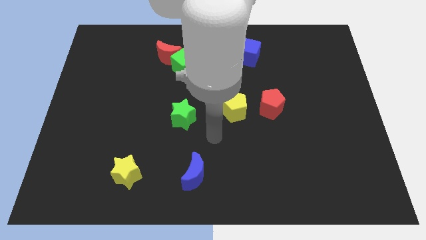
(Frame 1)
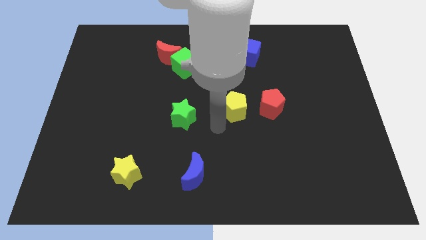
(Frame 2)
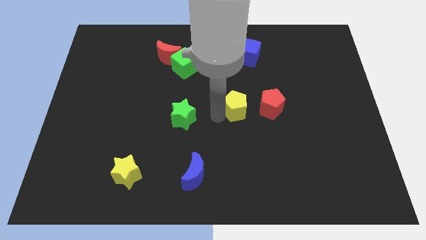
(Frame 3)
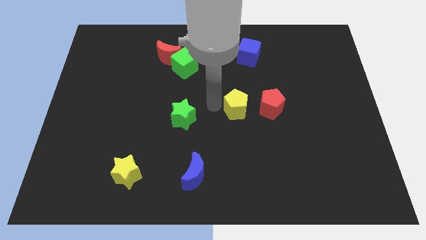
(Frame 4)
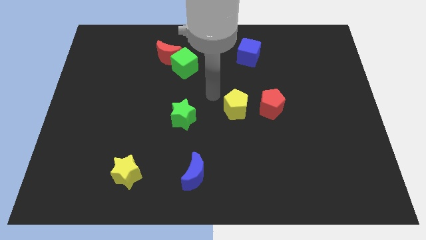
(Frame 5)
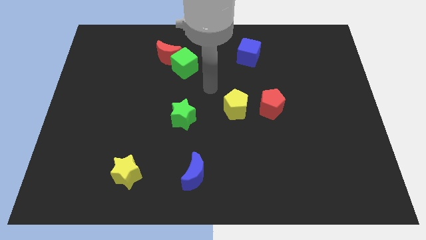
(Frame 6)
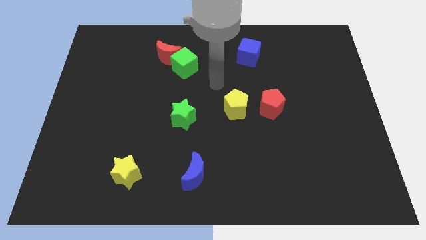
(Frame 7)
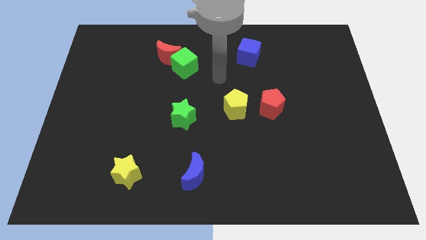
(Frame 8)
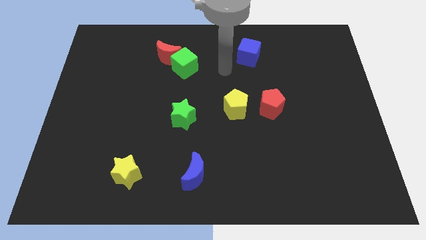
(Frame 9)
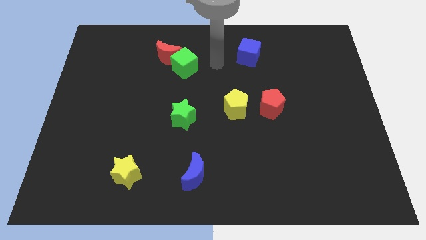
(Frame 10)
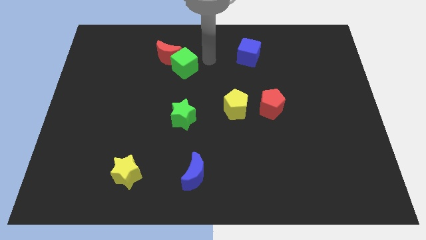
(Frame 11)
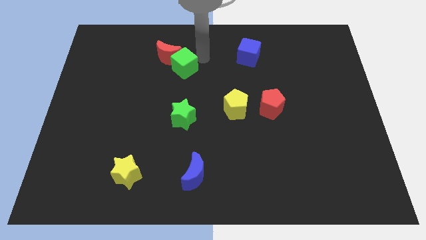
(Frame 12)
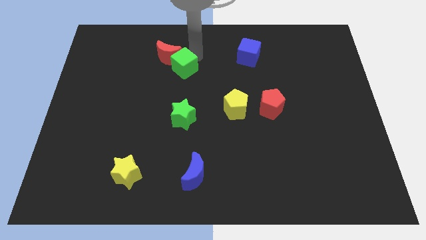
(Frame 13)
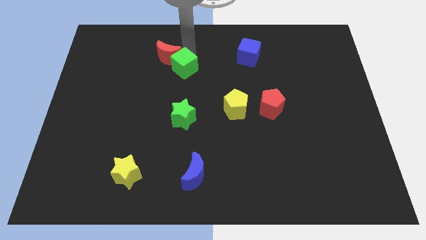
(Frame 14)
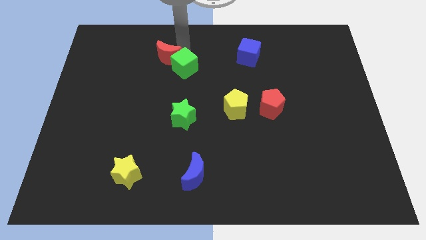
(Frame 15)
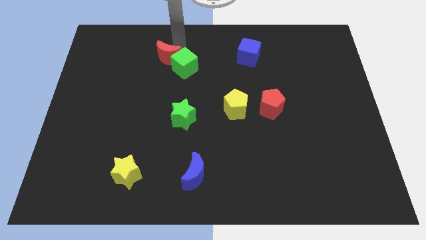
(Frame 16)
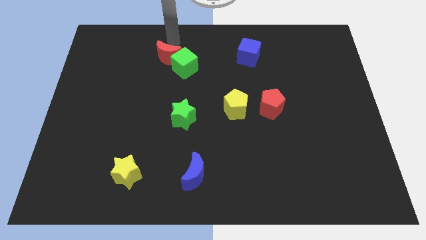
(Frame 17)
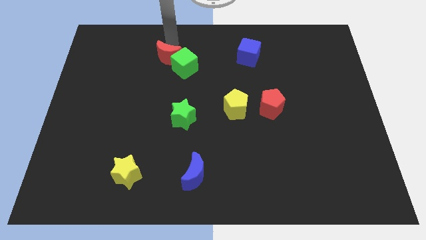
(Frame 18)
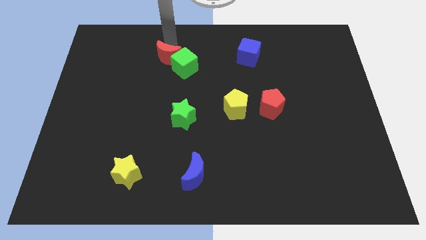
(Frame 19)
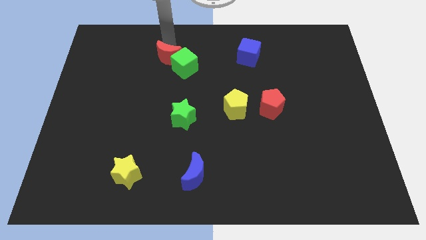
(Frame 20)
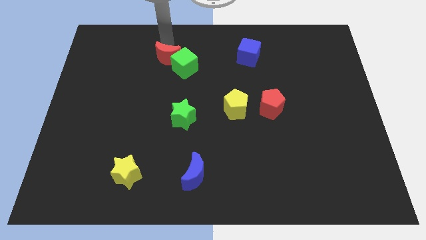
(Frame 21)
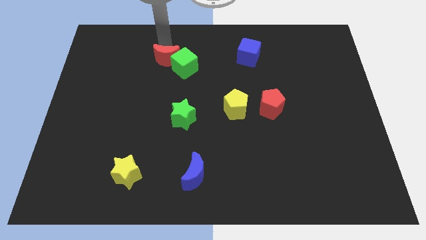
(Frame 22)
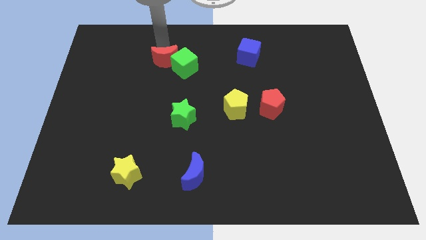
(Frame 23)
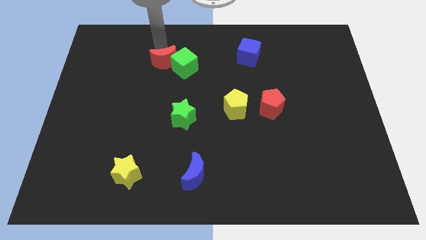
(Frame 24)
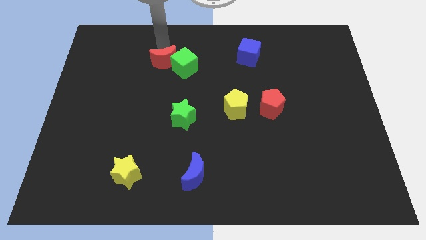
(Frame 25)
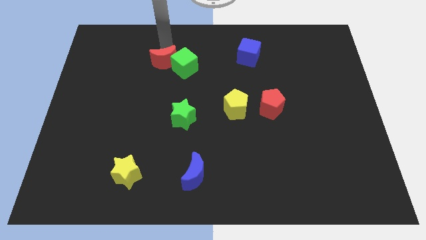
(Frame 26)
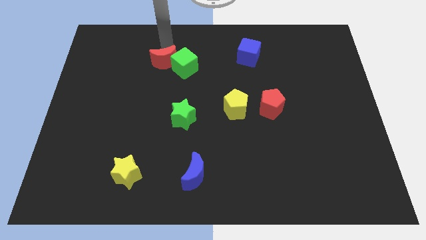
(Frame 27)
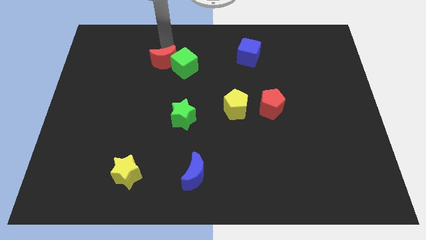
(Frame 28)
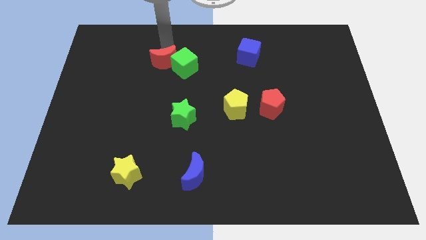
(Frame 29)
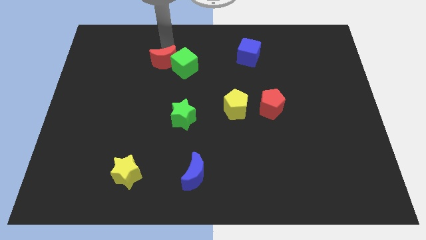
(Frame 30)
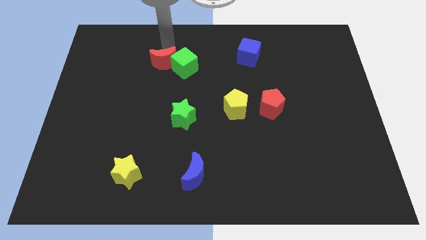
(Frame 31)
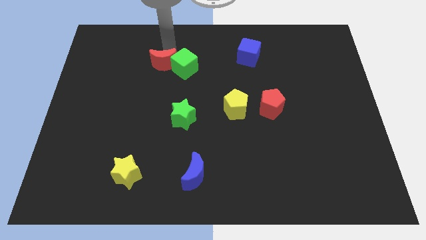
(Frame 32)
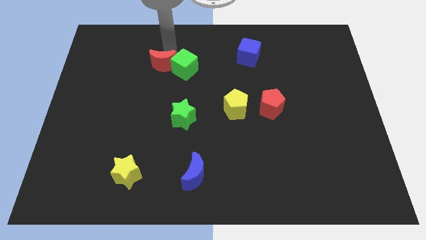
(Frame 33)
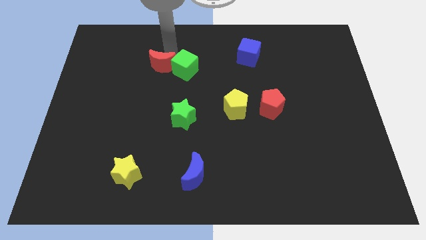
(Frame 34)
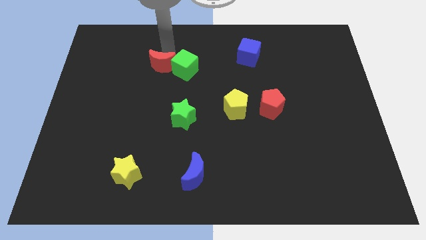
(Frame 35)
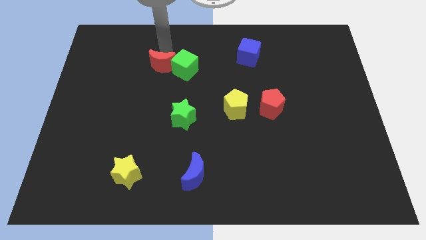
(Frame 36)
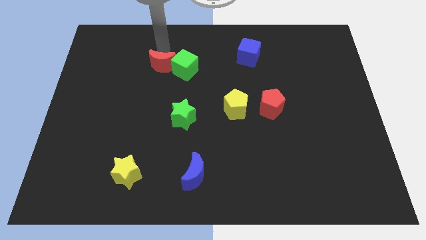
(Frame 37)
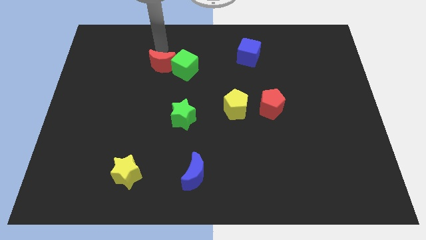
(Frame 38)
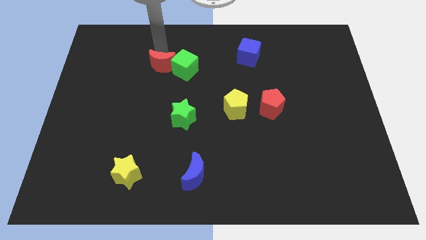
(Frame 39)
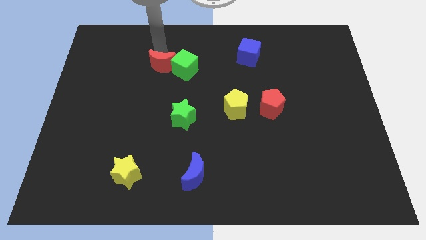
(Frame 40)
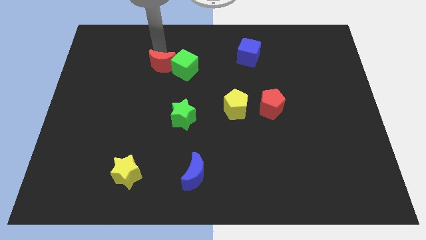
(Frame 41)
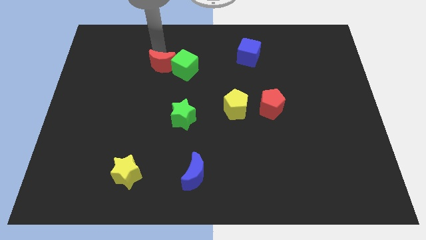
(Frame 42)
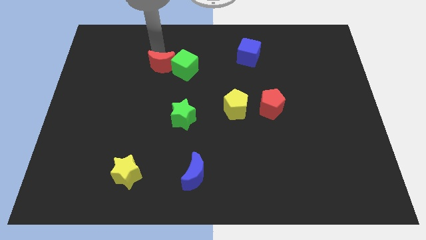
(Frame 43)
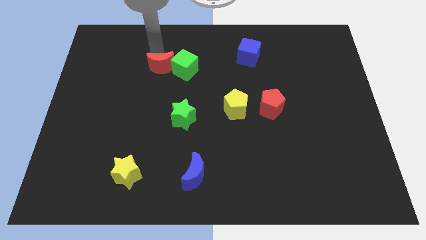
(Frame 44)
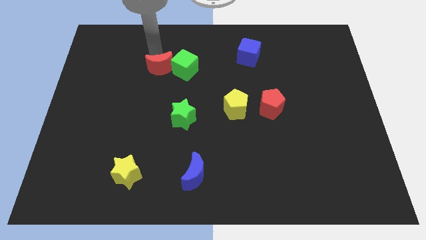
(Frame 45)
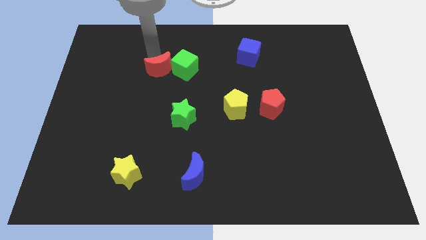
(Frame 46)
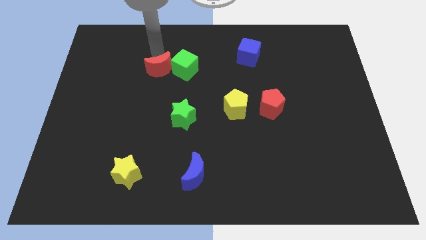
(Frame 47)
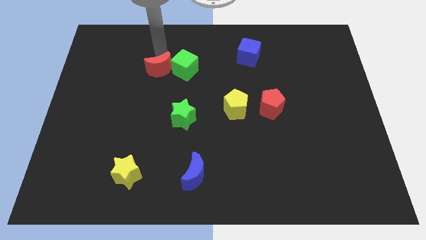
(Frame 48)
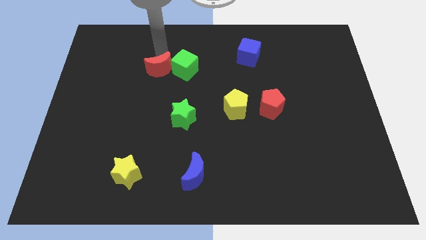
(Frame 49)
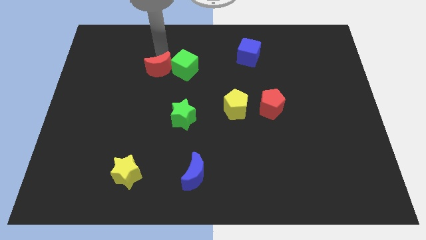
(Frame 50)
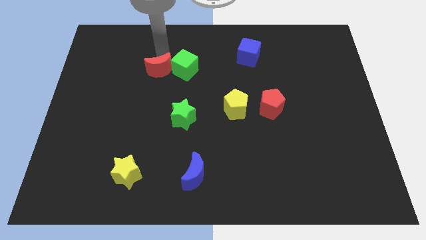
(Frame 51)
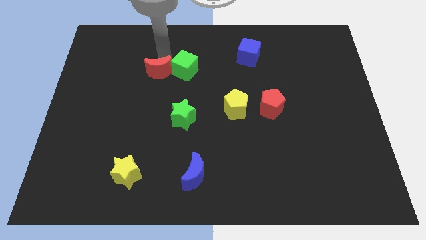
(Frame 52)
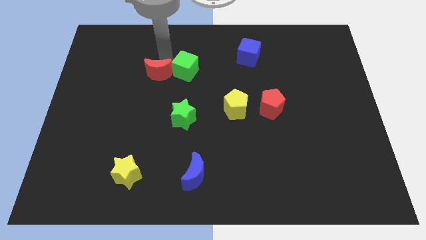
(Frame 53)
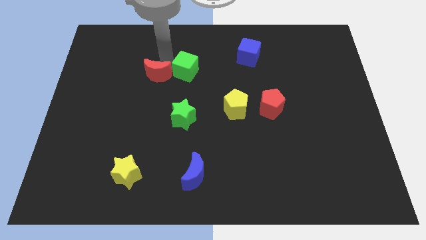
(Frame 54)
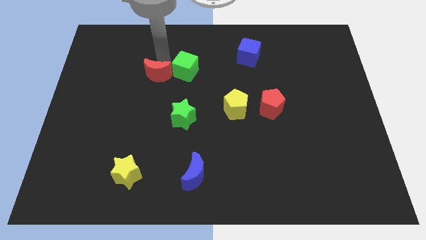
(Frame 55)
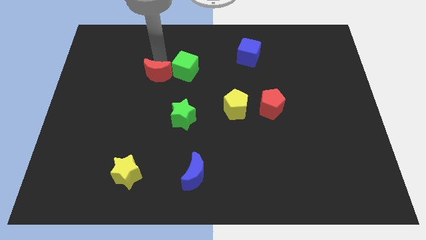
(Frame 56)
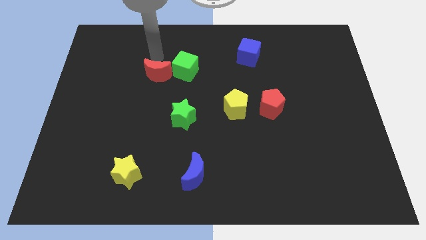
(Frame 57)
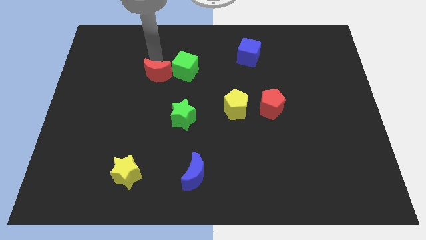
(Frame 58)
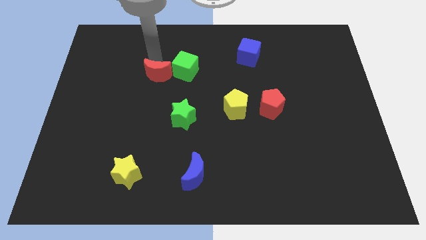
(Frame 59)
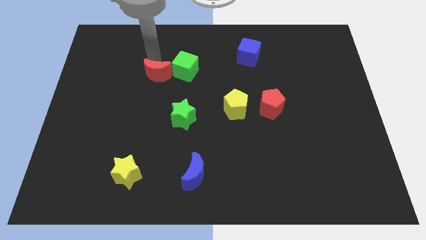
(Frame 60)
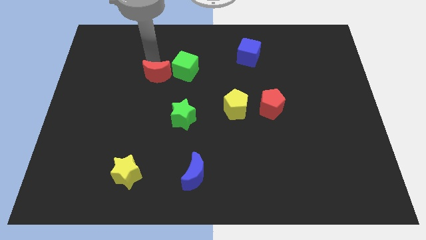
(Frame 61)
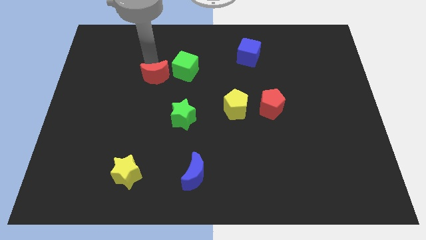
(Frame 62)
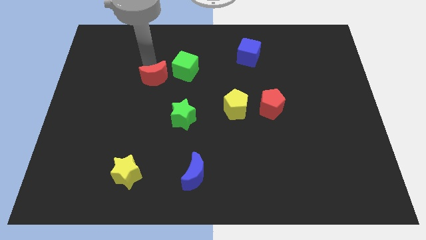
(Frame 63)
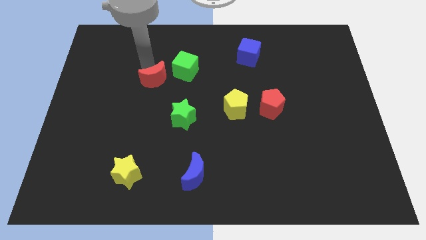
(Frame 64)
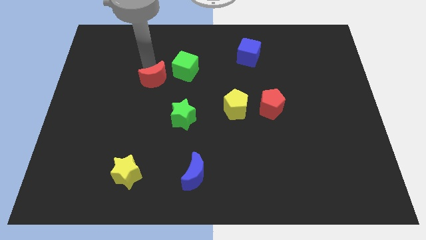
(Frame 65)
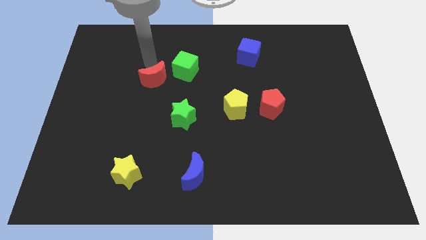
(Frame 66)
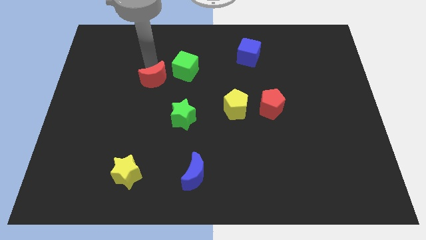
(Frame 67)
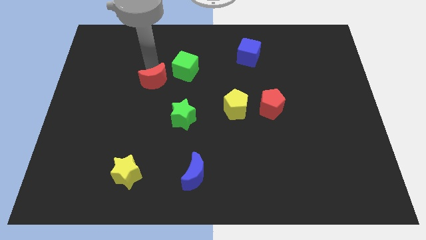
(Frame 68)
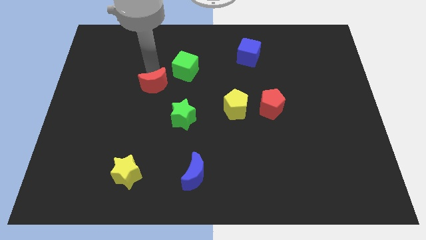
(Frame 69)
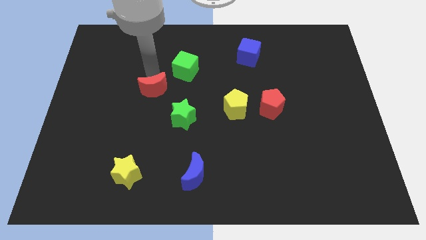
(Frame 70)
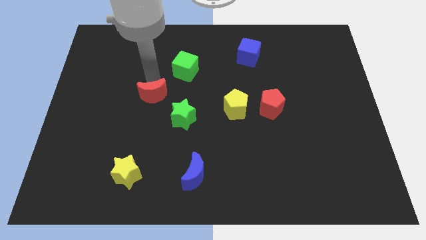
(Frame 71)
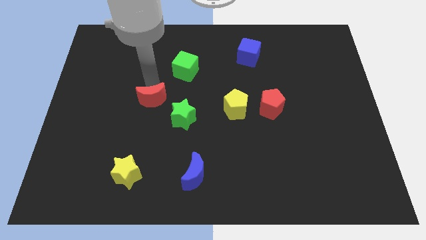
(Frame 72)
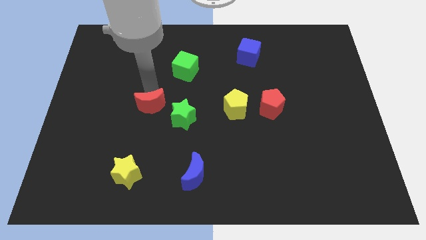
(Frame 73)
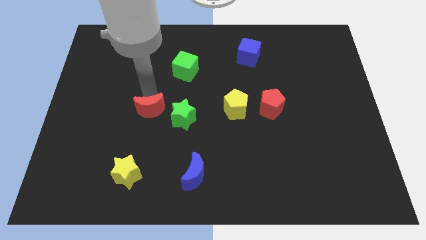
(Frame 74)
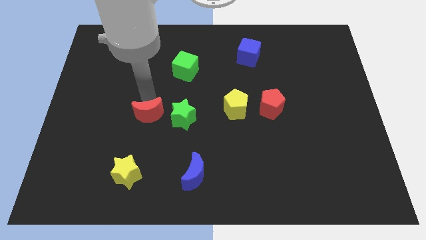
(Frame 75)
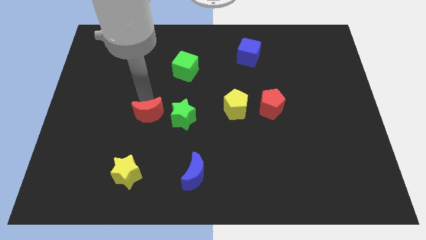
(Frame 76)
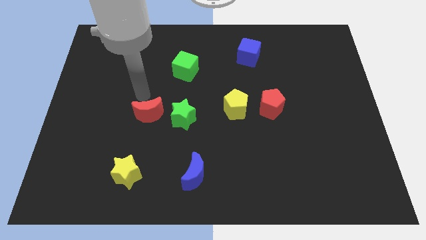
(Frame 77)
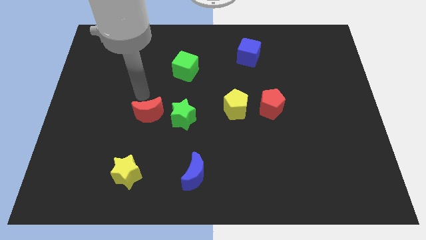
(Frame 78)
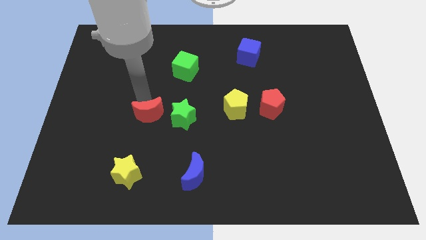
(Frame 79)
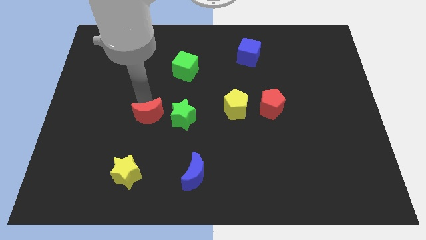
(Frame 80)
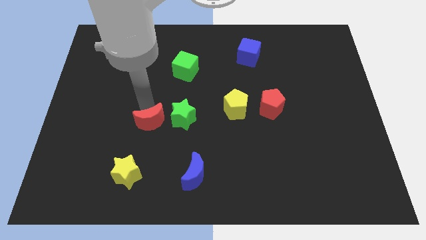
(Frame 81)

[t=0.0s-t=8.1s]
put the red moon diagonally down and to the left of the green star
